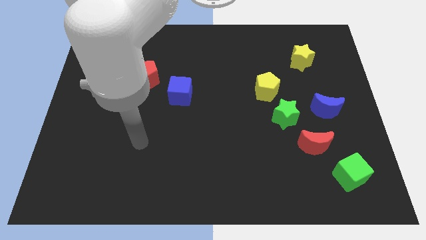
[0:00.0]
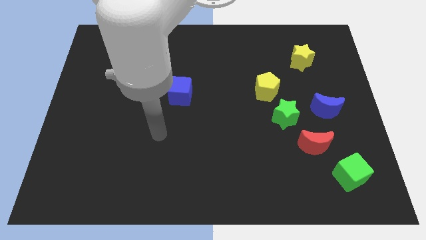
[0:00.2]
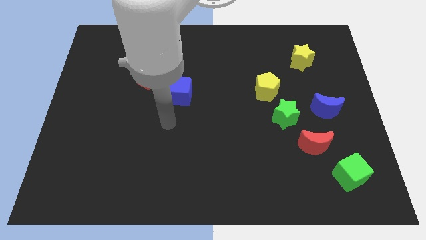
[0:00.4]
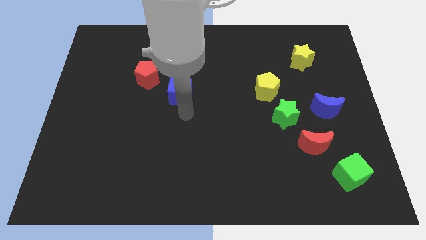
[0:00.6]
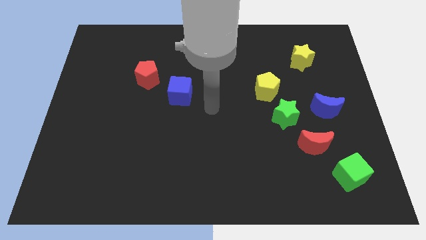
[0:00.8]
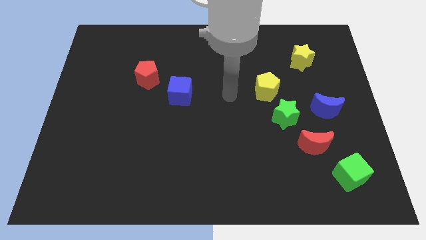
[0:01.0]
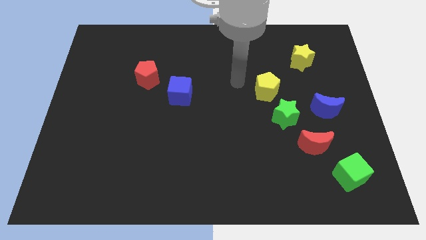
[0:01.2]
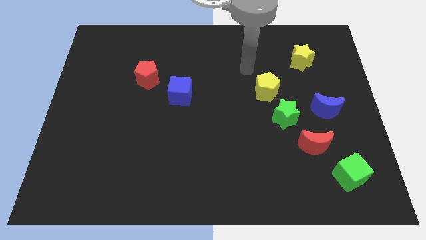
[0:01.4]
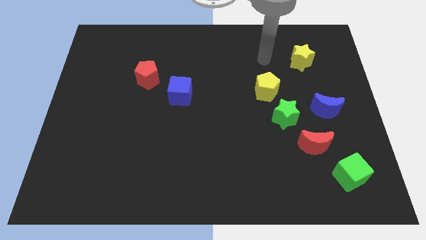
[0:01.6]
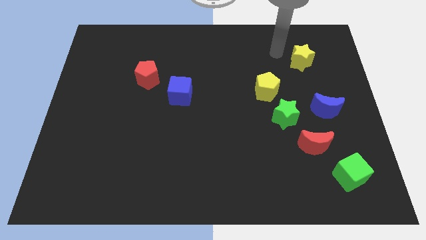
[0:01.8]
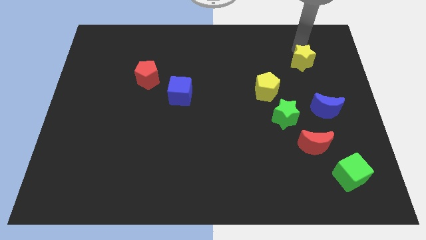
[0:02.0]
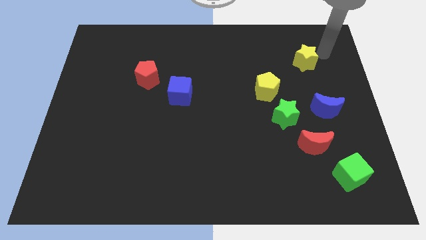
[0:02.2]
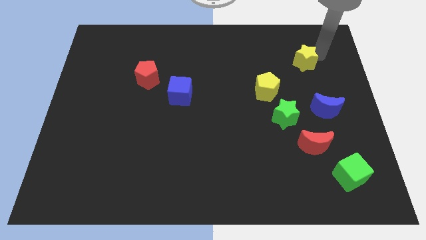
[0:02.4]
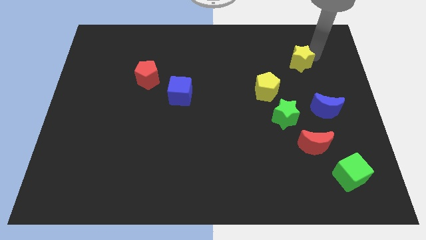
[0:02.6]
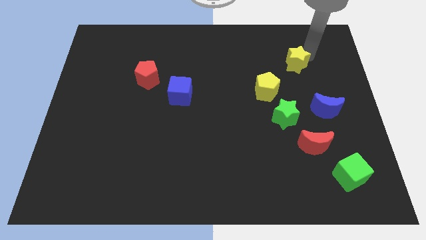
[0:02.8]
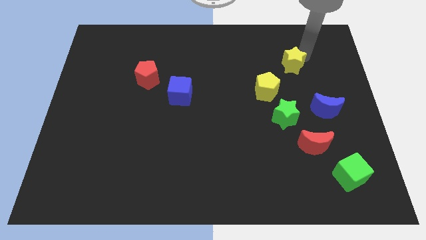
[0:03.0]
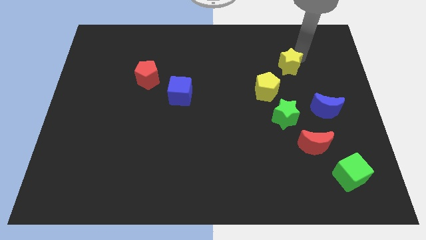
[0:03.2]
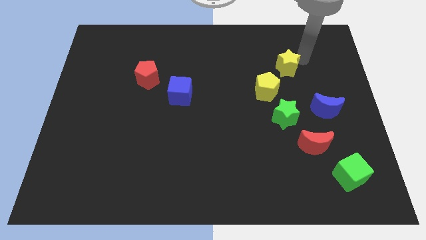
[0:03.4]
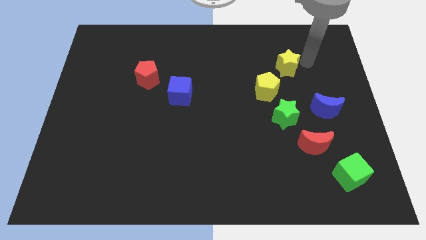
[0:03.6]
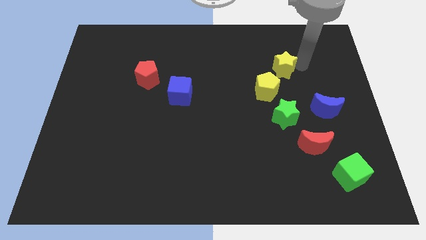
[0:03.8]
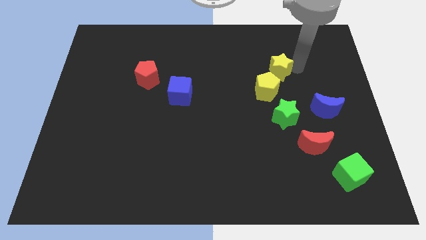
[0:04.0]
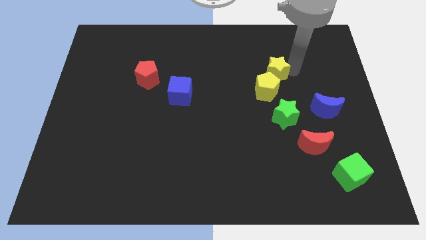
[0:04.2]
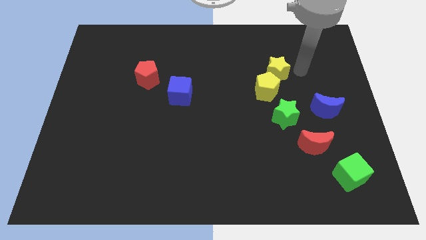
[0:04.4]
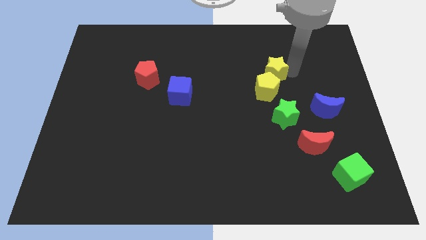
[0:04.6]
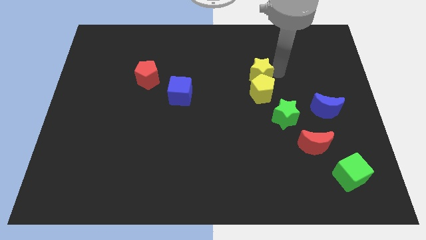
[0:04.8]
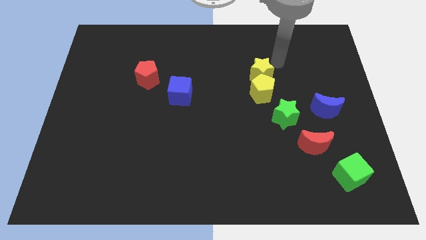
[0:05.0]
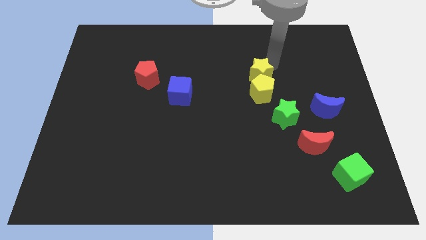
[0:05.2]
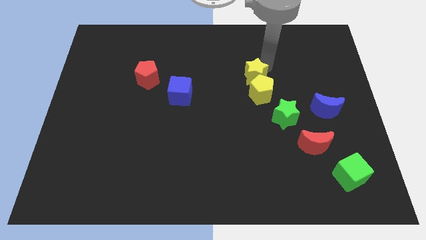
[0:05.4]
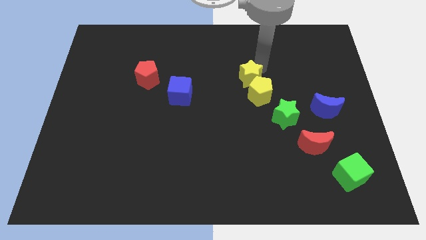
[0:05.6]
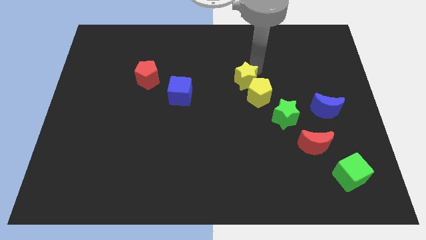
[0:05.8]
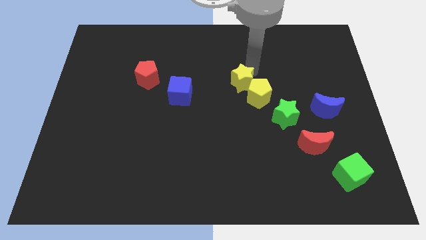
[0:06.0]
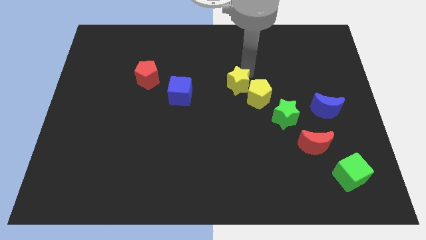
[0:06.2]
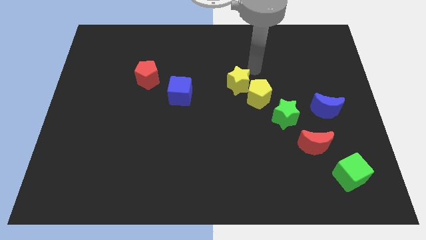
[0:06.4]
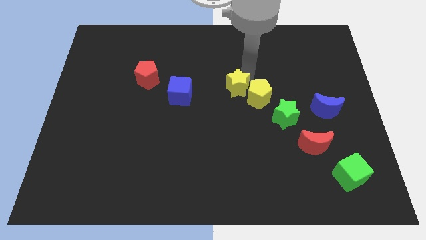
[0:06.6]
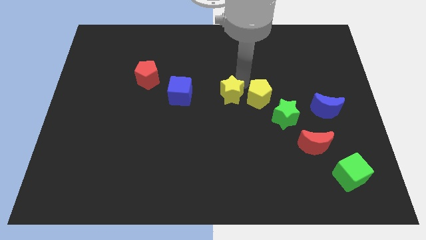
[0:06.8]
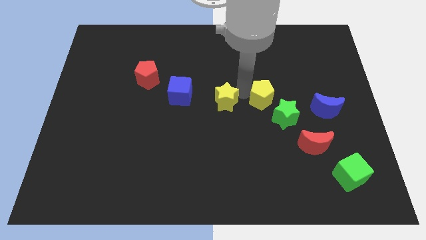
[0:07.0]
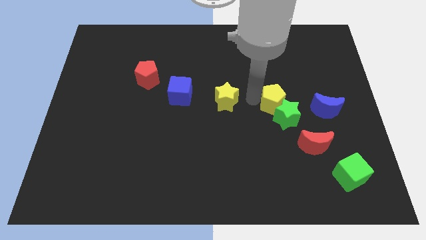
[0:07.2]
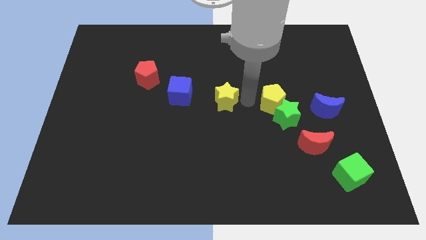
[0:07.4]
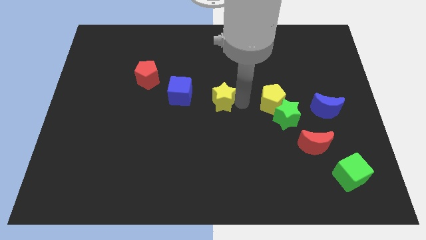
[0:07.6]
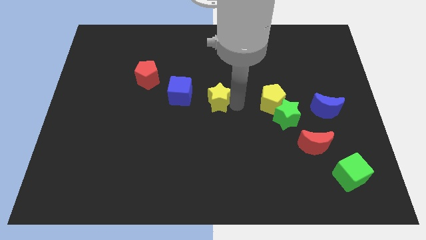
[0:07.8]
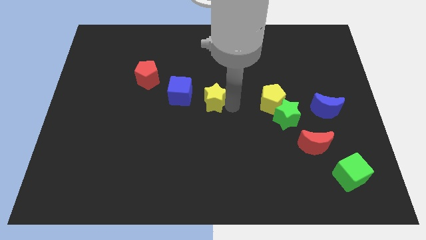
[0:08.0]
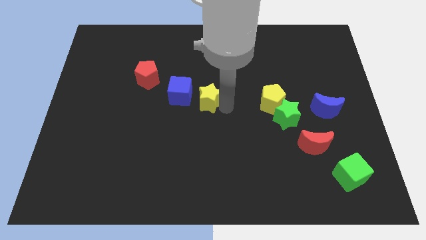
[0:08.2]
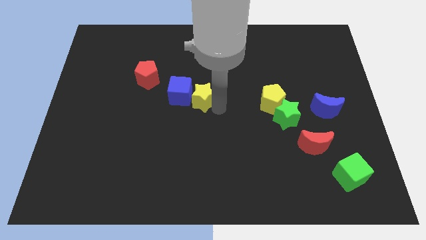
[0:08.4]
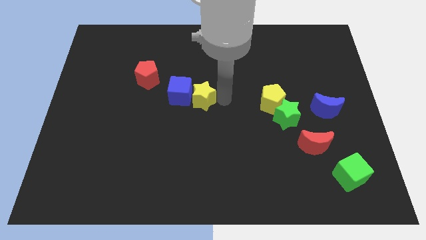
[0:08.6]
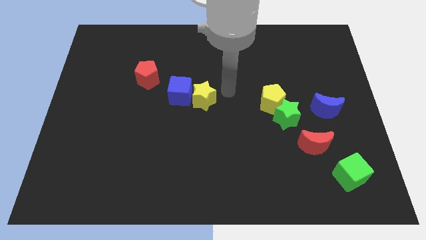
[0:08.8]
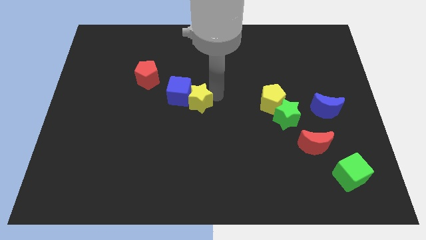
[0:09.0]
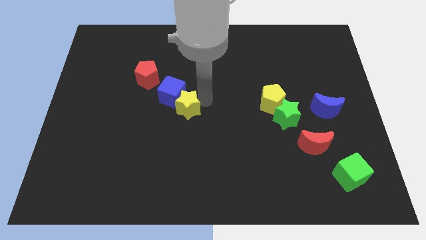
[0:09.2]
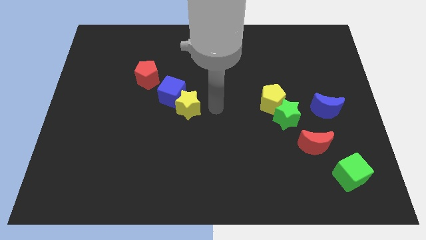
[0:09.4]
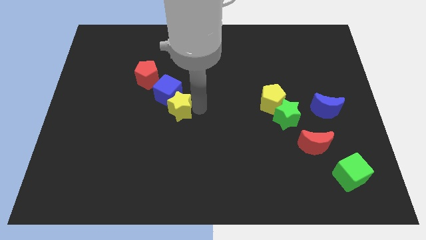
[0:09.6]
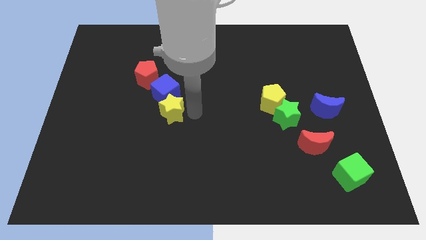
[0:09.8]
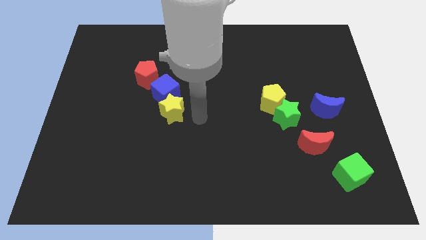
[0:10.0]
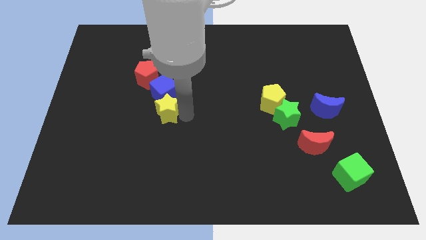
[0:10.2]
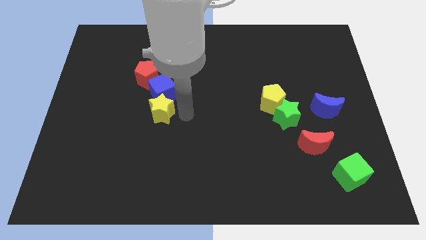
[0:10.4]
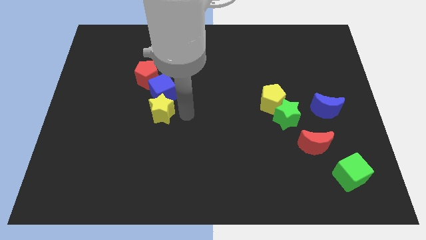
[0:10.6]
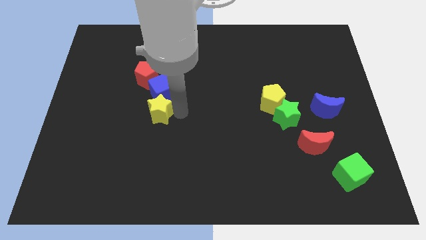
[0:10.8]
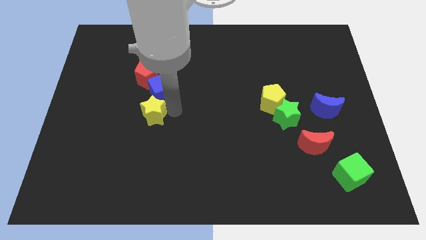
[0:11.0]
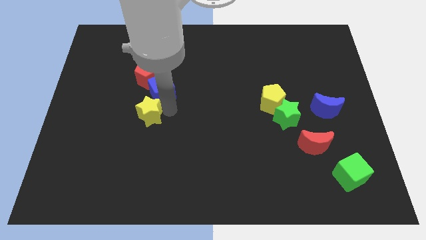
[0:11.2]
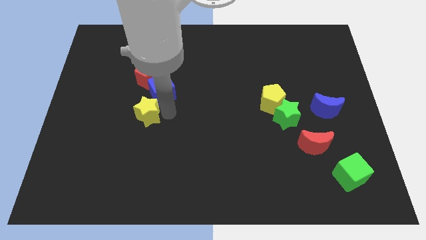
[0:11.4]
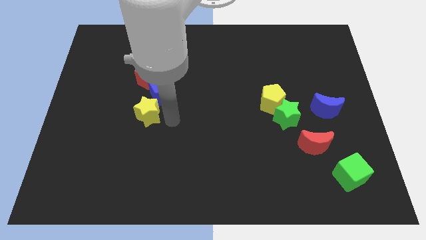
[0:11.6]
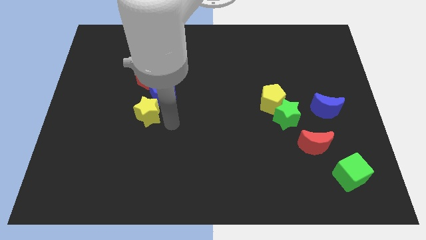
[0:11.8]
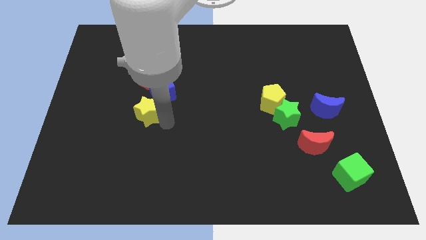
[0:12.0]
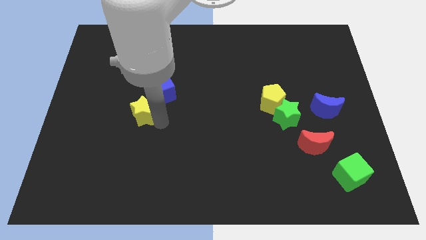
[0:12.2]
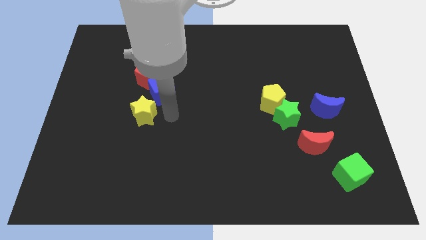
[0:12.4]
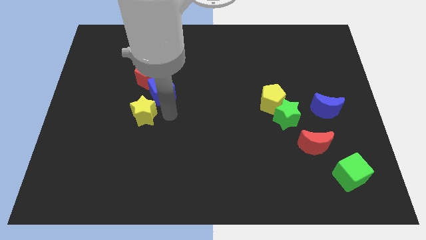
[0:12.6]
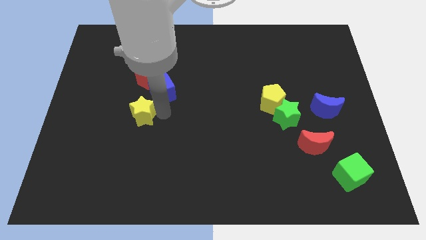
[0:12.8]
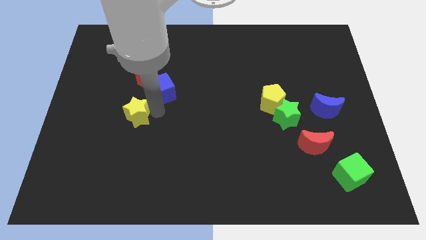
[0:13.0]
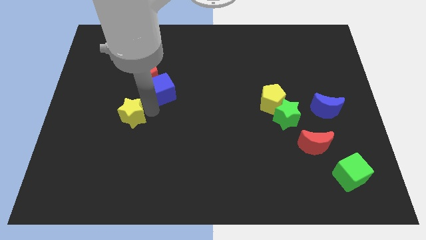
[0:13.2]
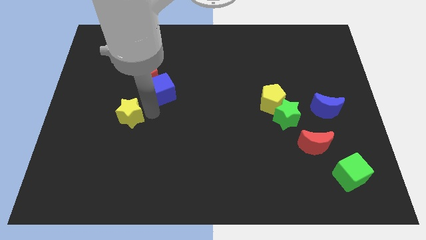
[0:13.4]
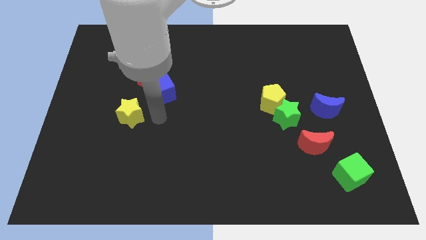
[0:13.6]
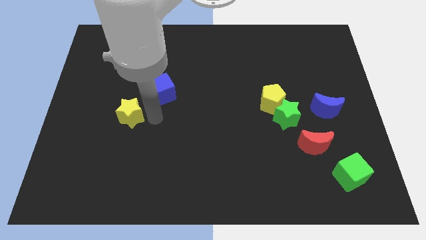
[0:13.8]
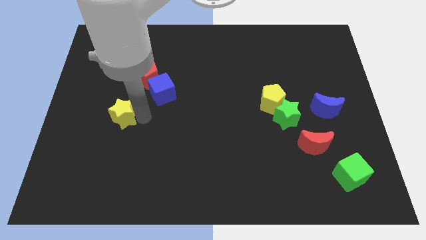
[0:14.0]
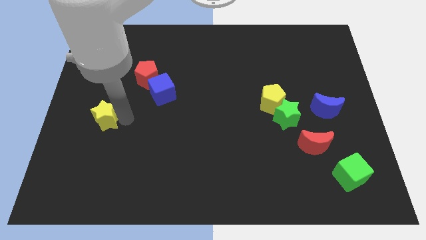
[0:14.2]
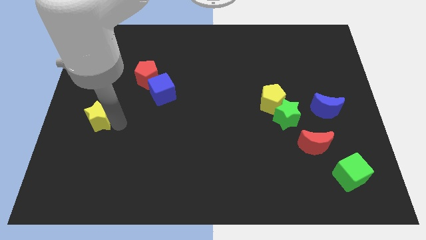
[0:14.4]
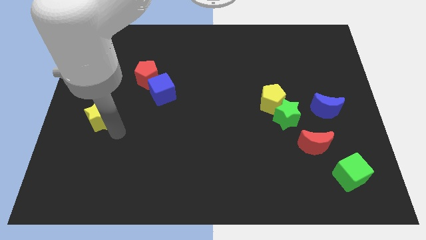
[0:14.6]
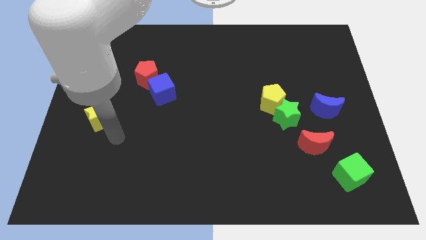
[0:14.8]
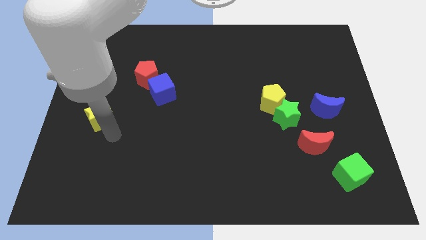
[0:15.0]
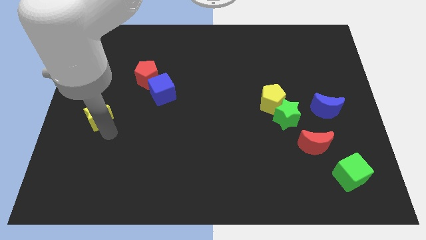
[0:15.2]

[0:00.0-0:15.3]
move the yellow star to the left side
